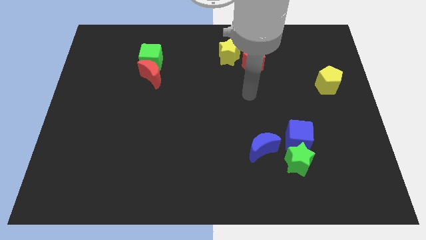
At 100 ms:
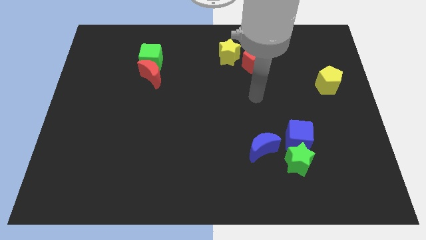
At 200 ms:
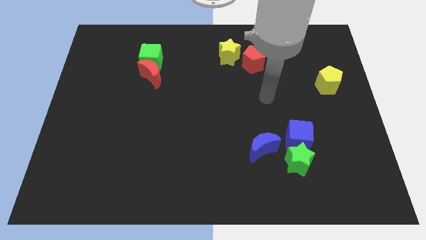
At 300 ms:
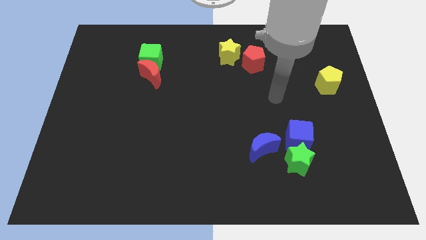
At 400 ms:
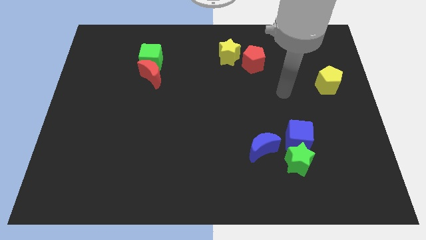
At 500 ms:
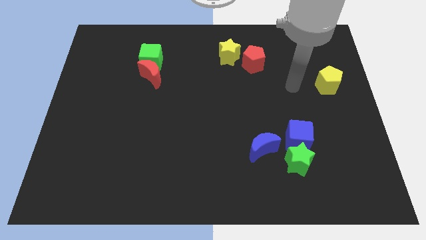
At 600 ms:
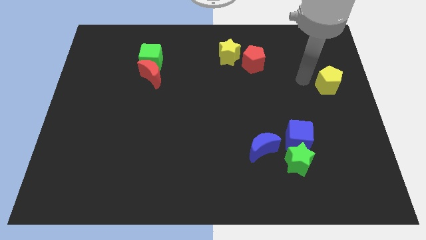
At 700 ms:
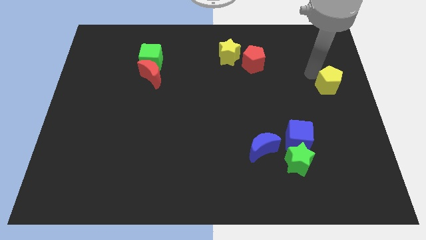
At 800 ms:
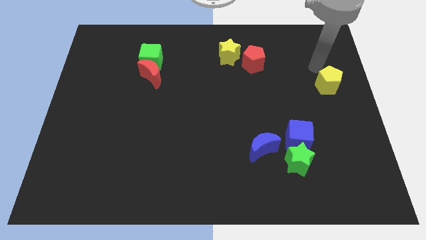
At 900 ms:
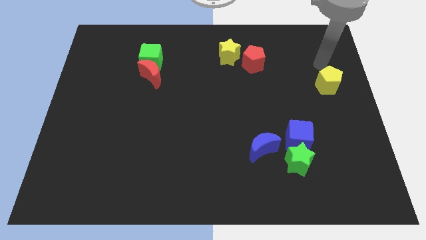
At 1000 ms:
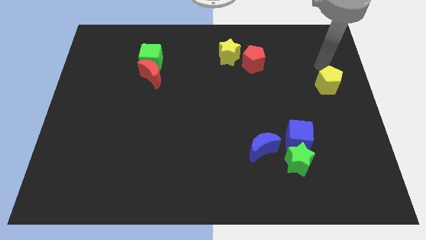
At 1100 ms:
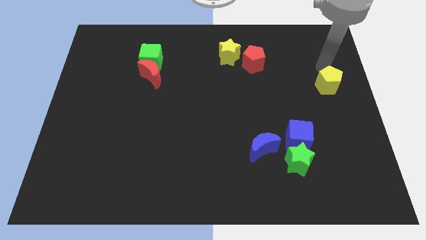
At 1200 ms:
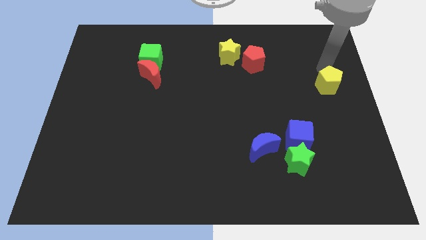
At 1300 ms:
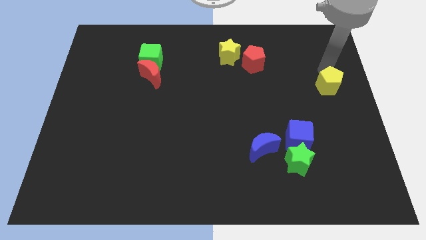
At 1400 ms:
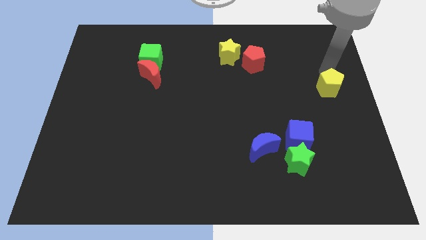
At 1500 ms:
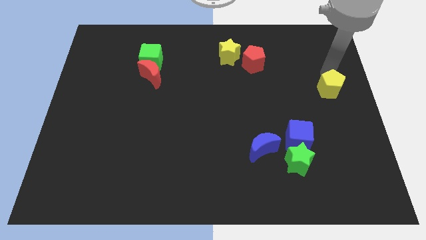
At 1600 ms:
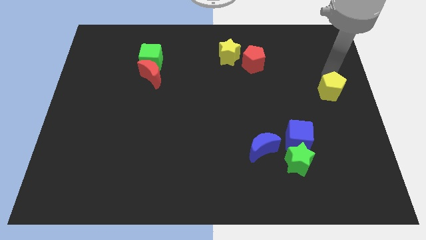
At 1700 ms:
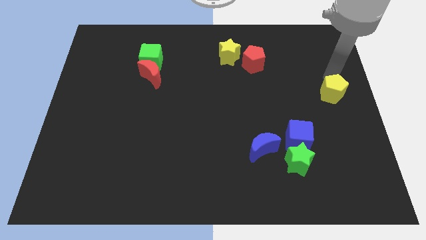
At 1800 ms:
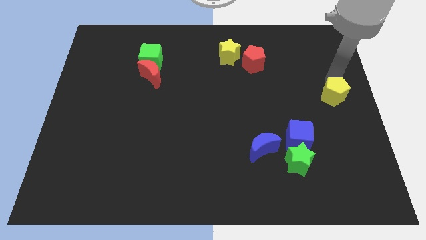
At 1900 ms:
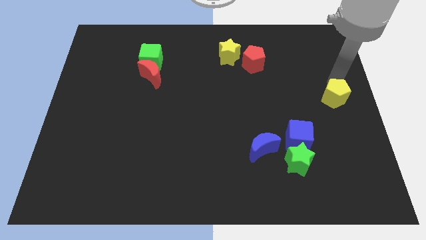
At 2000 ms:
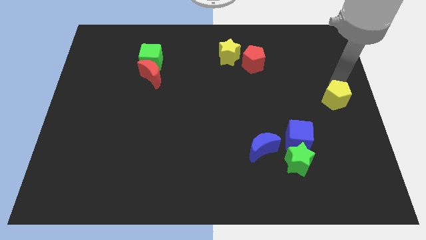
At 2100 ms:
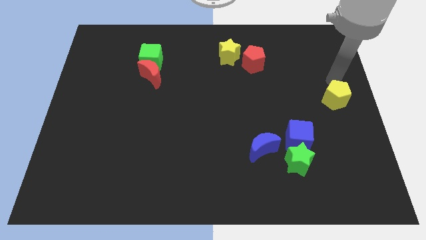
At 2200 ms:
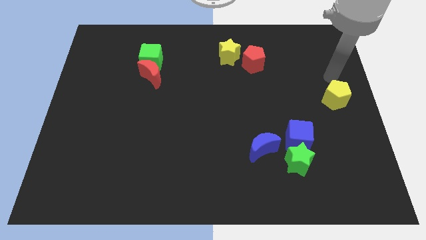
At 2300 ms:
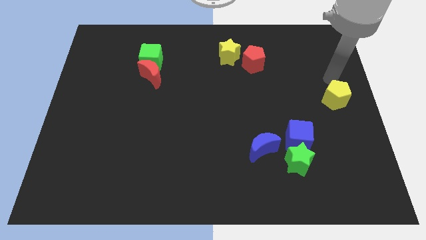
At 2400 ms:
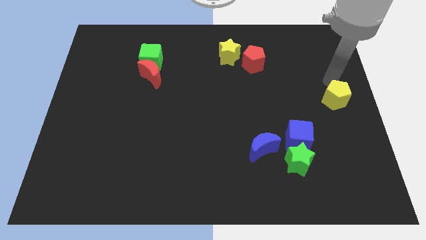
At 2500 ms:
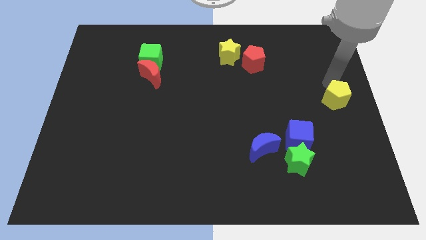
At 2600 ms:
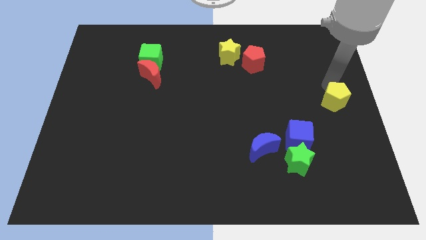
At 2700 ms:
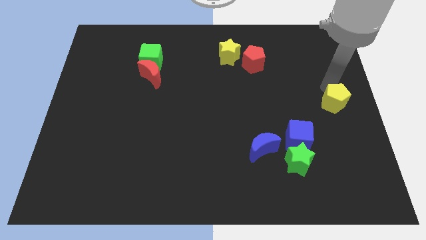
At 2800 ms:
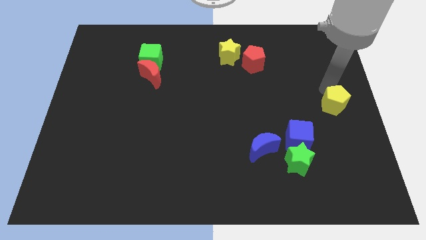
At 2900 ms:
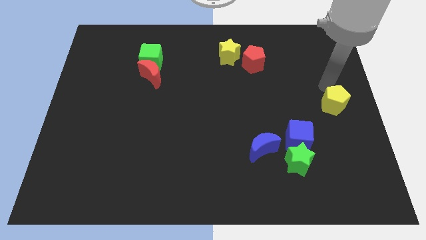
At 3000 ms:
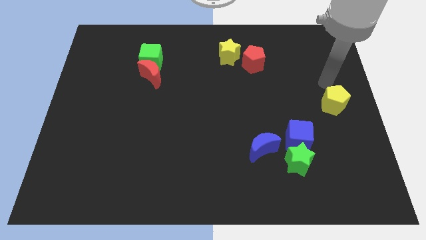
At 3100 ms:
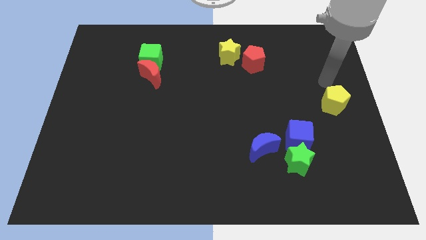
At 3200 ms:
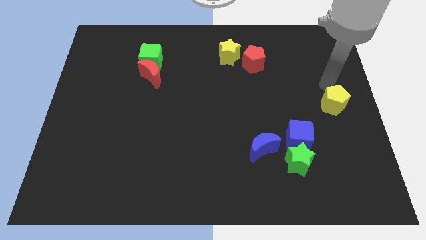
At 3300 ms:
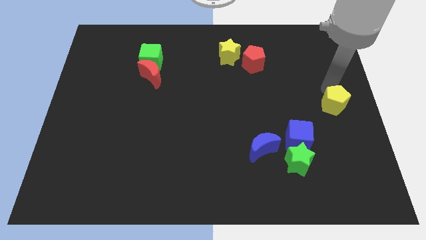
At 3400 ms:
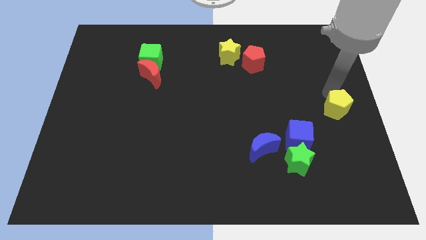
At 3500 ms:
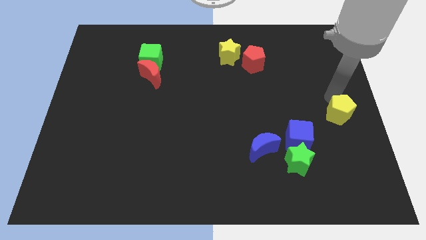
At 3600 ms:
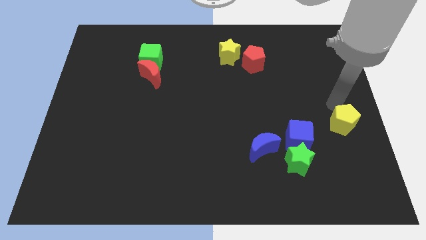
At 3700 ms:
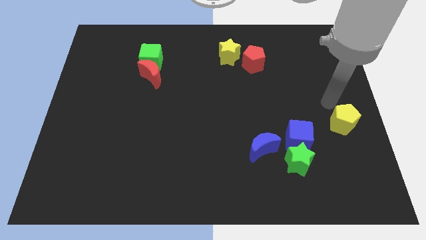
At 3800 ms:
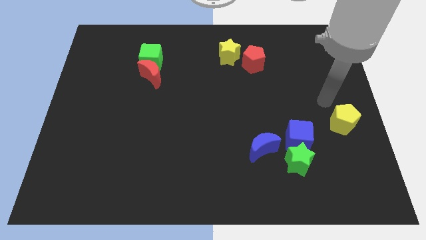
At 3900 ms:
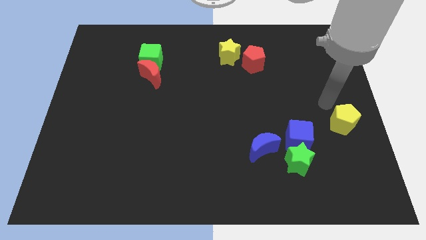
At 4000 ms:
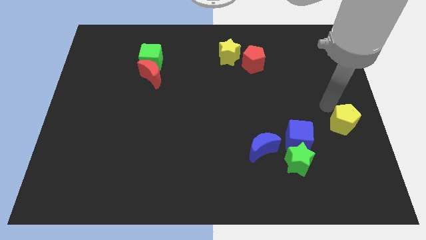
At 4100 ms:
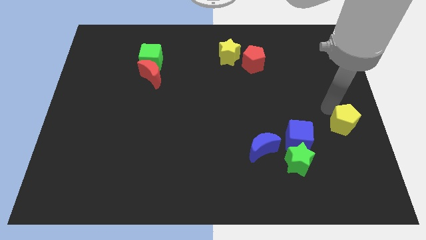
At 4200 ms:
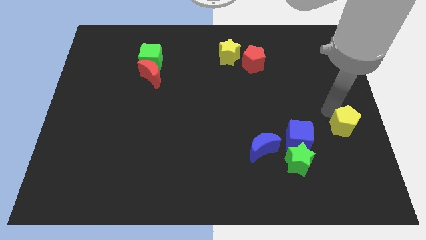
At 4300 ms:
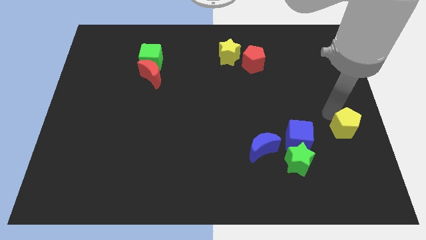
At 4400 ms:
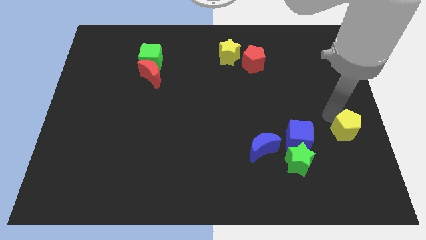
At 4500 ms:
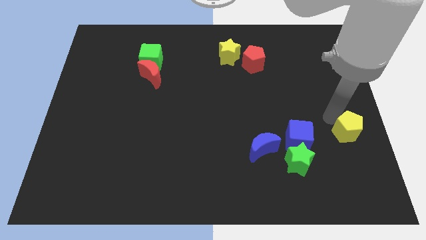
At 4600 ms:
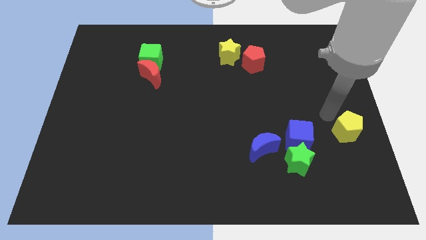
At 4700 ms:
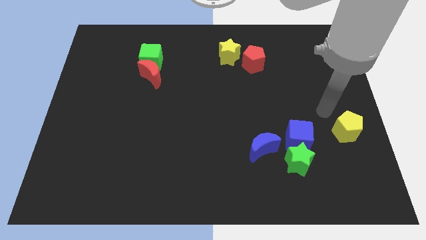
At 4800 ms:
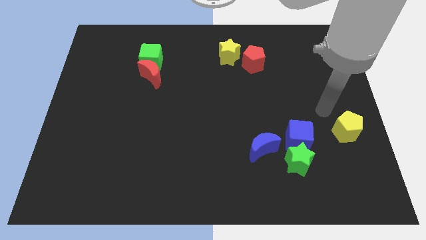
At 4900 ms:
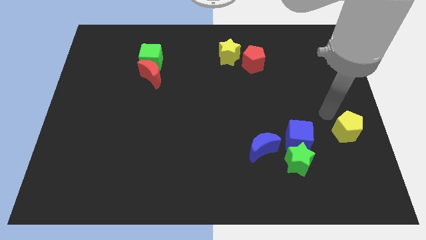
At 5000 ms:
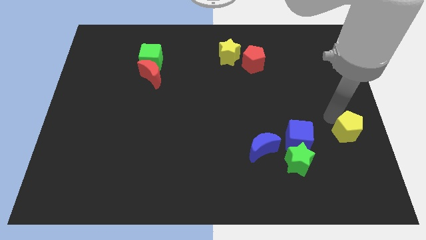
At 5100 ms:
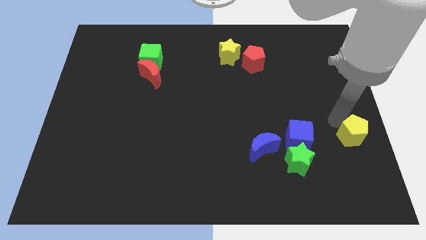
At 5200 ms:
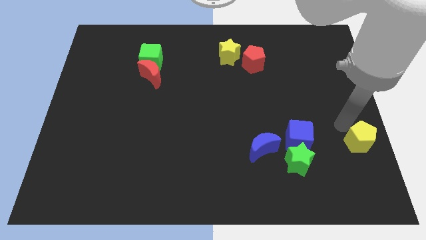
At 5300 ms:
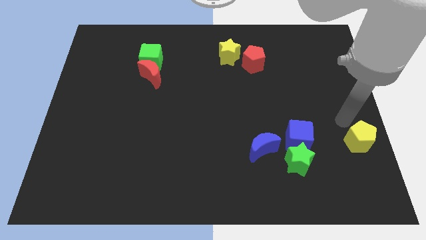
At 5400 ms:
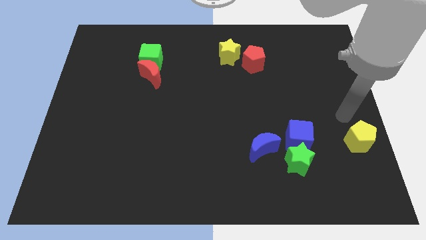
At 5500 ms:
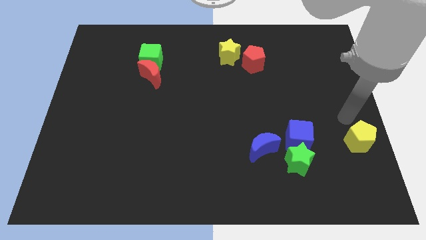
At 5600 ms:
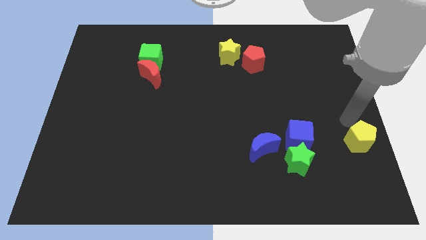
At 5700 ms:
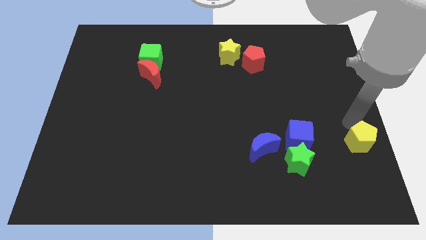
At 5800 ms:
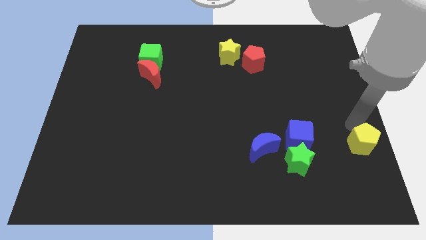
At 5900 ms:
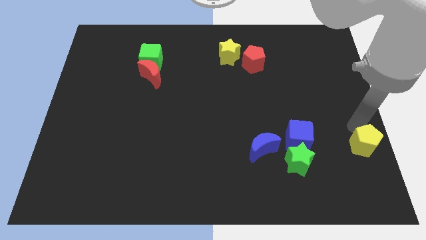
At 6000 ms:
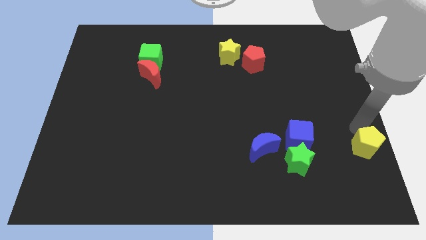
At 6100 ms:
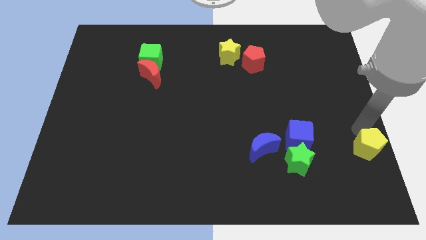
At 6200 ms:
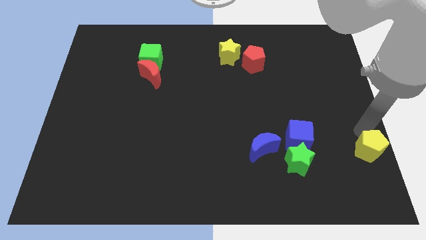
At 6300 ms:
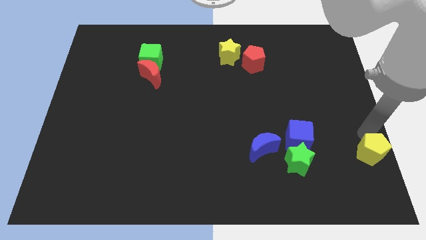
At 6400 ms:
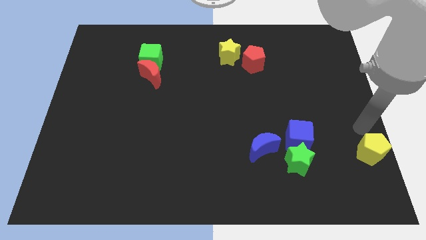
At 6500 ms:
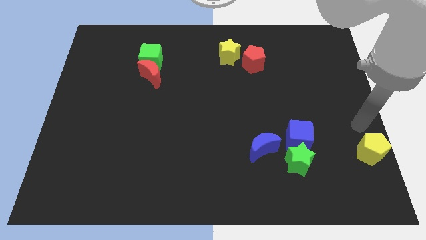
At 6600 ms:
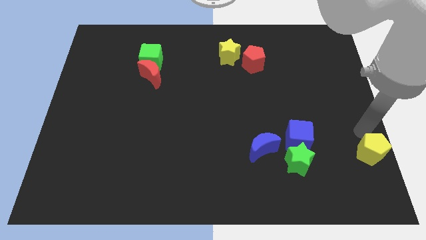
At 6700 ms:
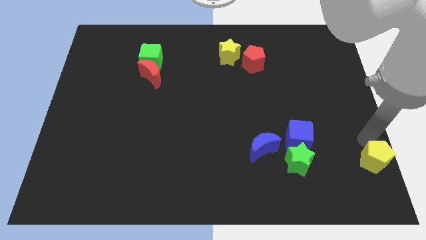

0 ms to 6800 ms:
slide the yellow pentagon to the lower right corner
